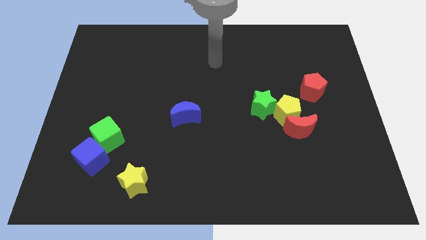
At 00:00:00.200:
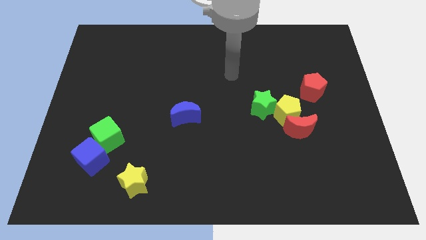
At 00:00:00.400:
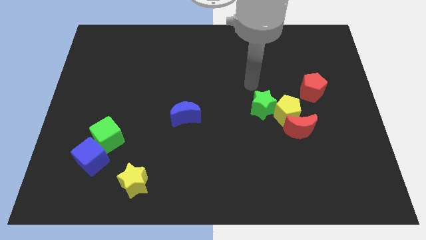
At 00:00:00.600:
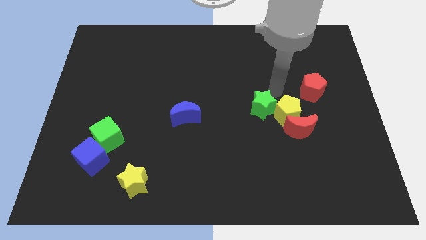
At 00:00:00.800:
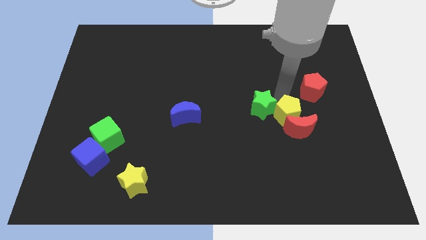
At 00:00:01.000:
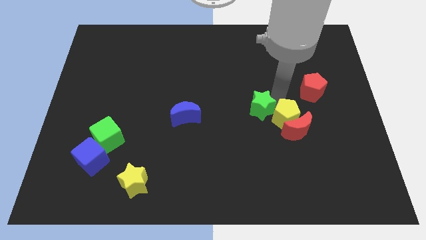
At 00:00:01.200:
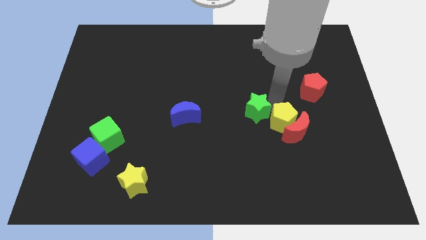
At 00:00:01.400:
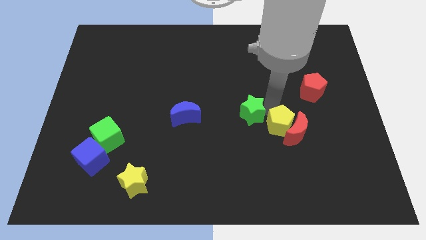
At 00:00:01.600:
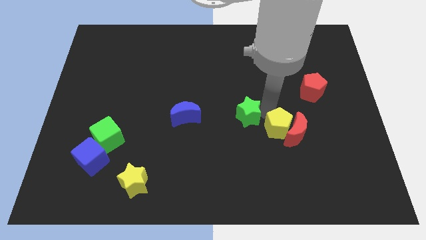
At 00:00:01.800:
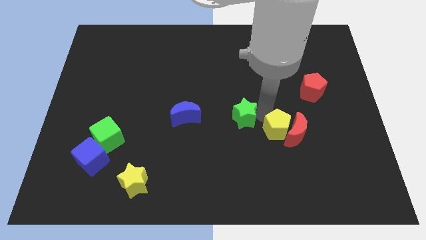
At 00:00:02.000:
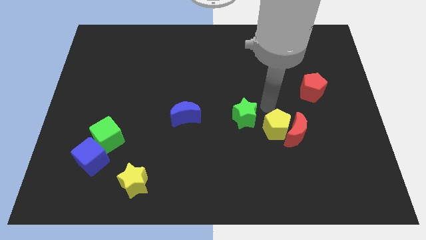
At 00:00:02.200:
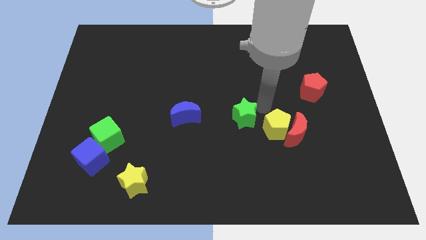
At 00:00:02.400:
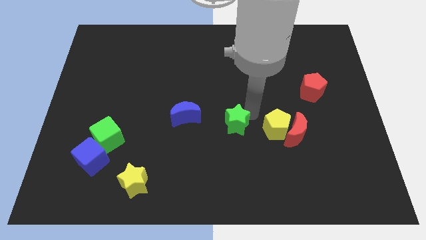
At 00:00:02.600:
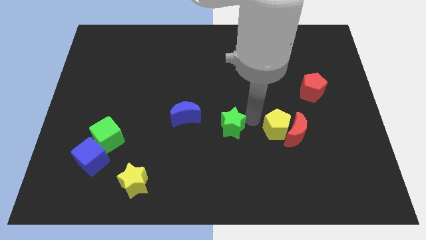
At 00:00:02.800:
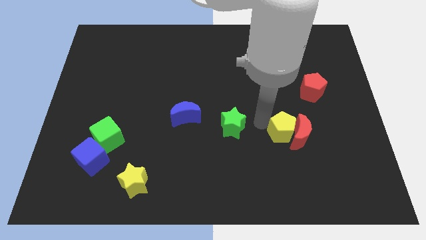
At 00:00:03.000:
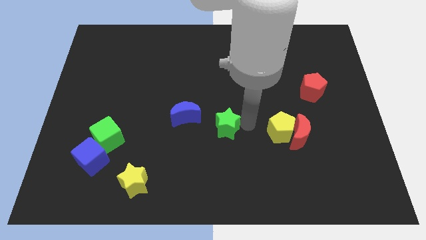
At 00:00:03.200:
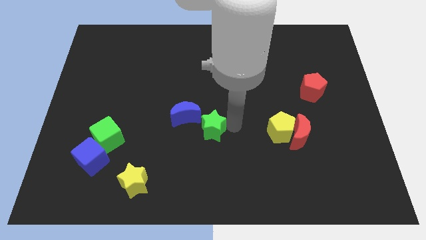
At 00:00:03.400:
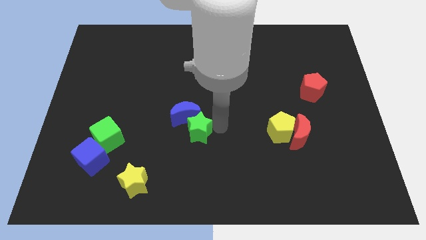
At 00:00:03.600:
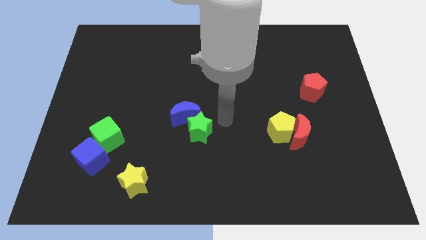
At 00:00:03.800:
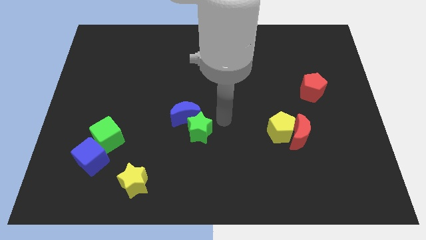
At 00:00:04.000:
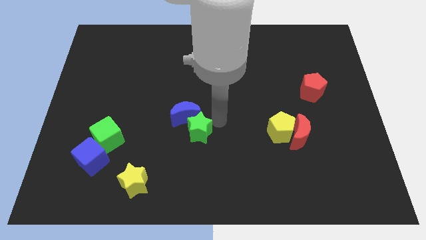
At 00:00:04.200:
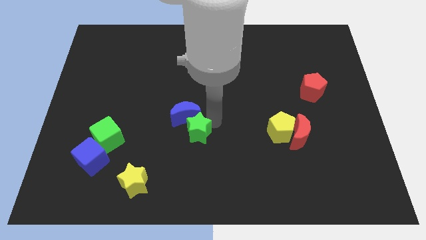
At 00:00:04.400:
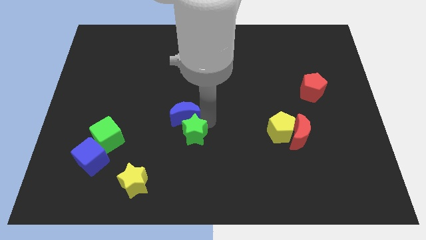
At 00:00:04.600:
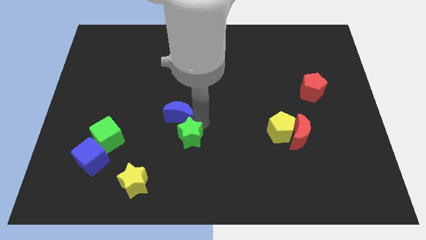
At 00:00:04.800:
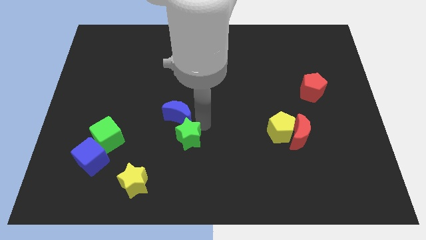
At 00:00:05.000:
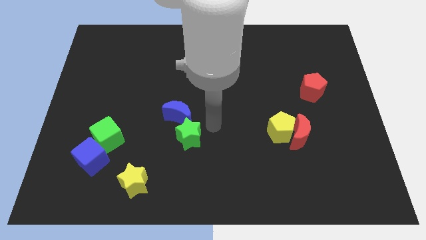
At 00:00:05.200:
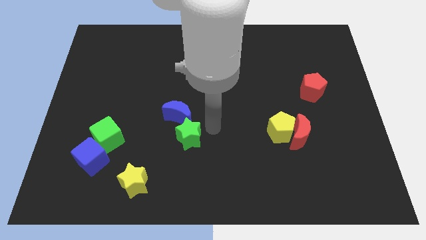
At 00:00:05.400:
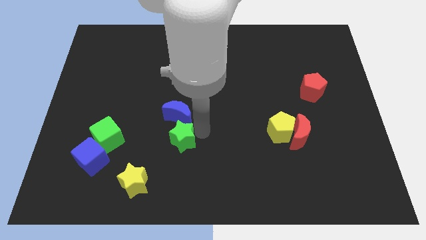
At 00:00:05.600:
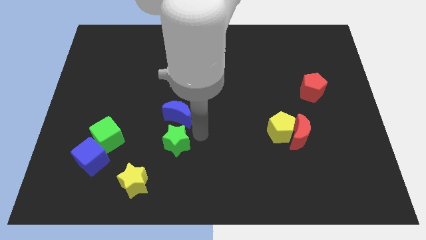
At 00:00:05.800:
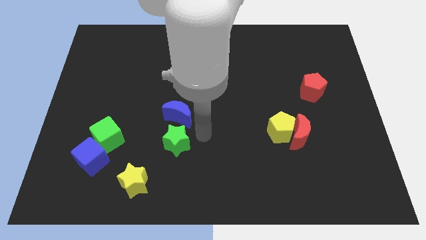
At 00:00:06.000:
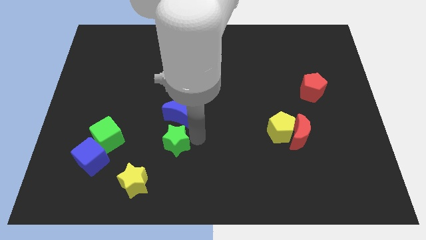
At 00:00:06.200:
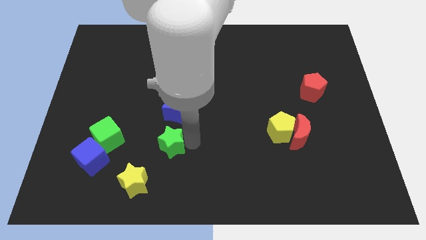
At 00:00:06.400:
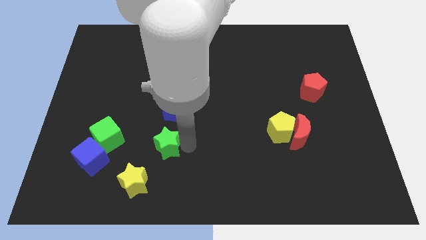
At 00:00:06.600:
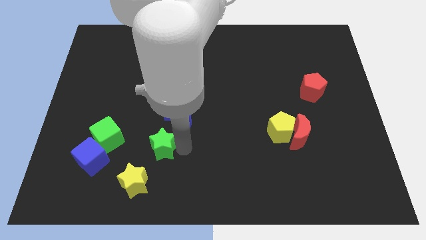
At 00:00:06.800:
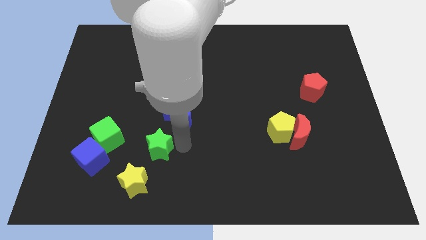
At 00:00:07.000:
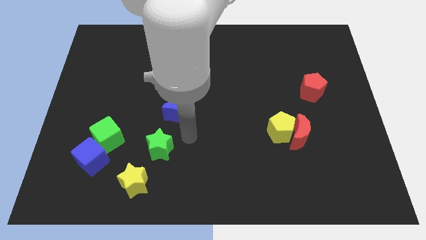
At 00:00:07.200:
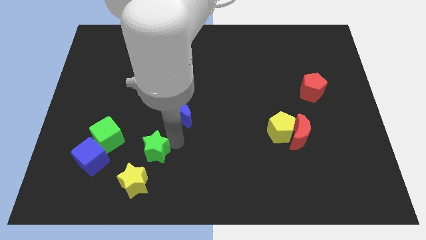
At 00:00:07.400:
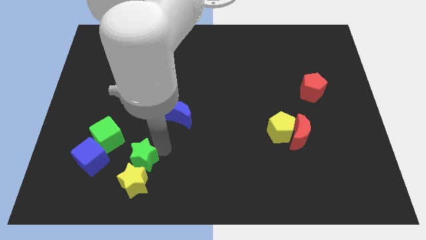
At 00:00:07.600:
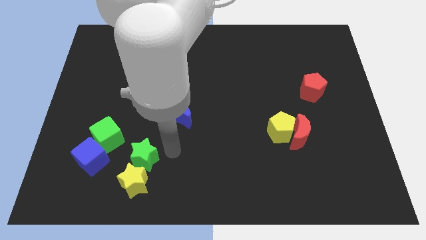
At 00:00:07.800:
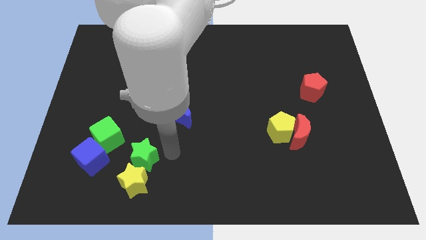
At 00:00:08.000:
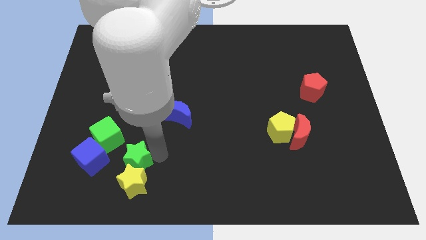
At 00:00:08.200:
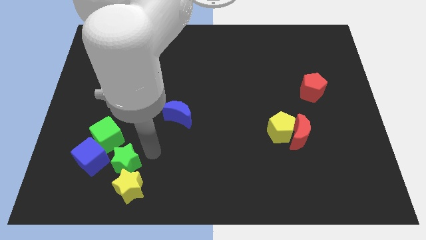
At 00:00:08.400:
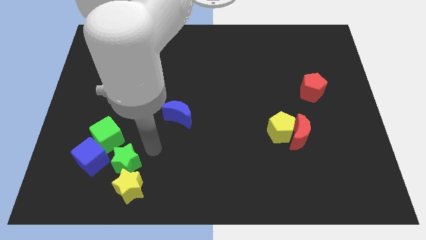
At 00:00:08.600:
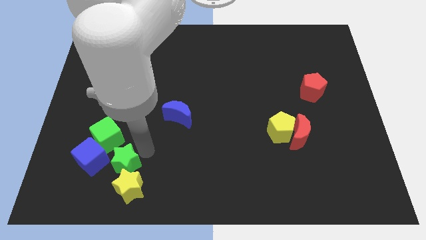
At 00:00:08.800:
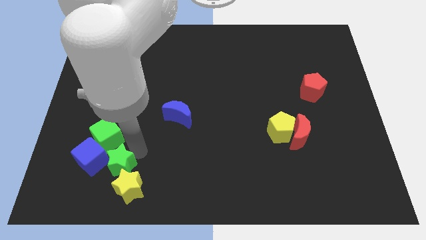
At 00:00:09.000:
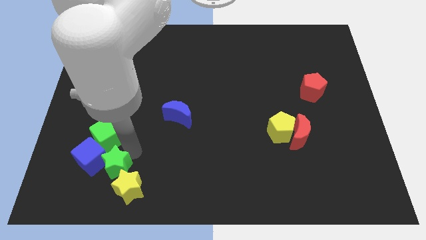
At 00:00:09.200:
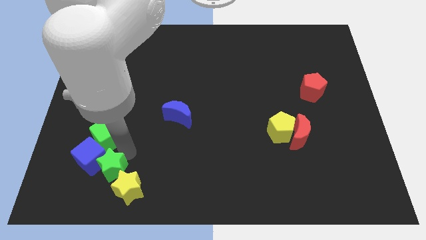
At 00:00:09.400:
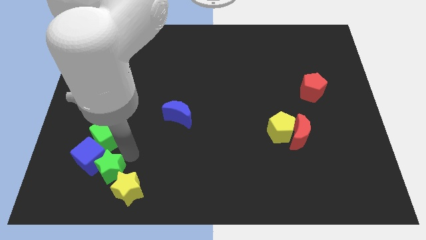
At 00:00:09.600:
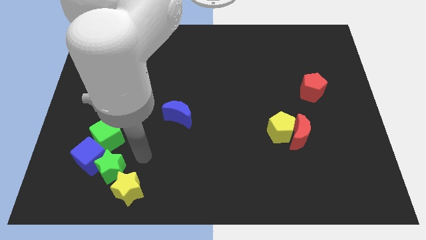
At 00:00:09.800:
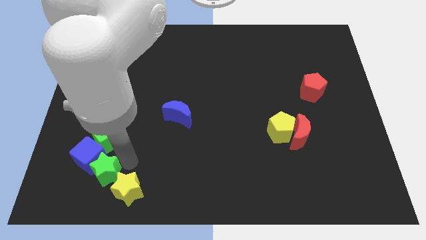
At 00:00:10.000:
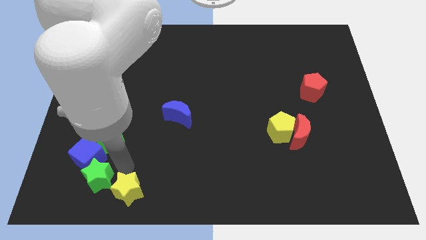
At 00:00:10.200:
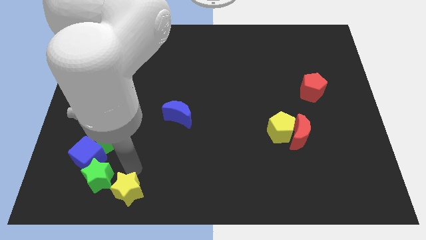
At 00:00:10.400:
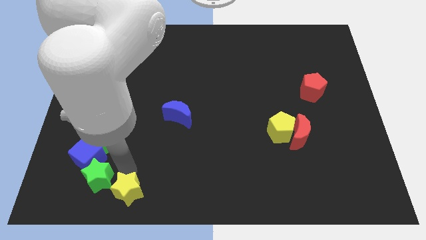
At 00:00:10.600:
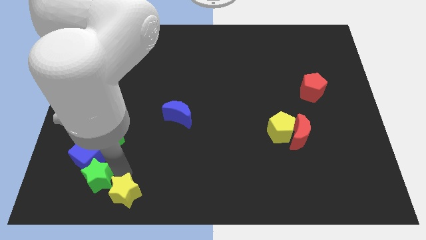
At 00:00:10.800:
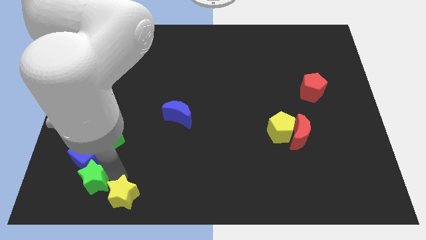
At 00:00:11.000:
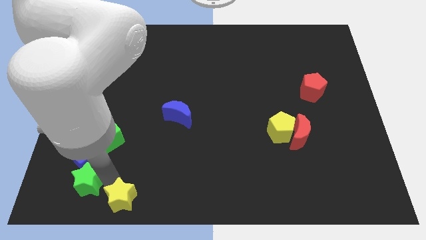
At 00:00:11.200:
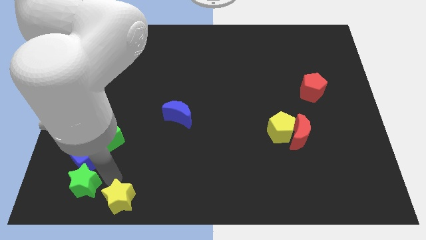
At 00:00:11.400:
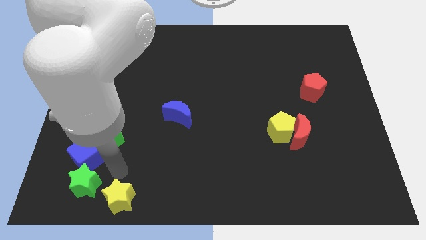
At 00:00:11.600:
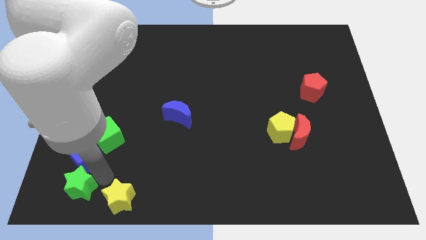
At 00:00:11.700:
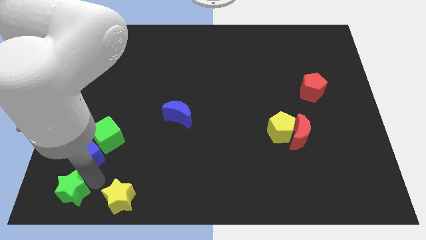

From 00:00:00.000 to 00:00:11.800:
put the green star to the bottom left corner
